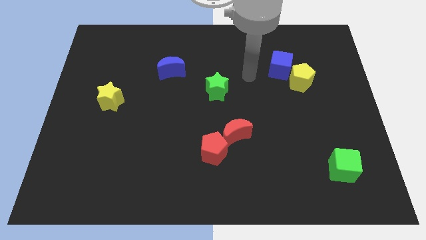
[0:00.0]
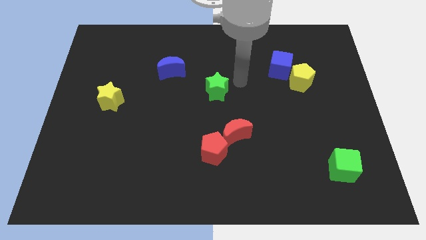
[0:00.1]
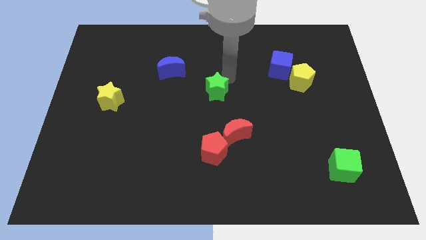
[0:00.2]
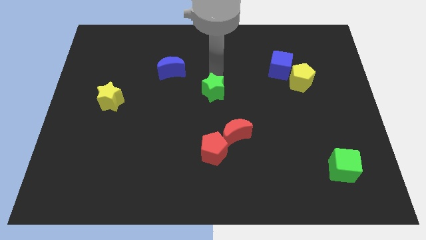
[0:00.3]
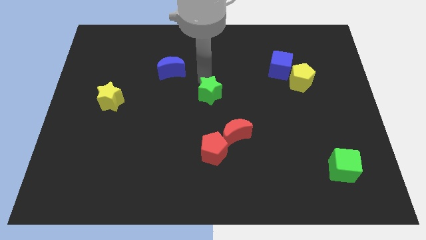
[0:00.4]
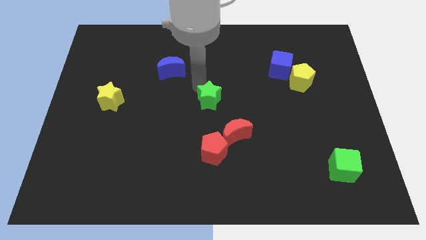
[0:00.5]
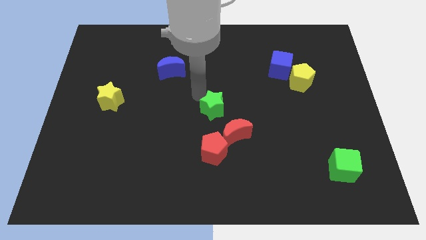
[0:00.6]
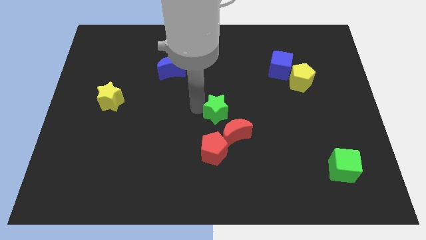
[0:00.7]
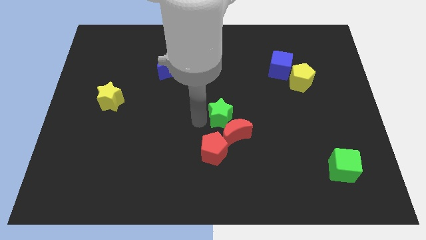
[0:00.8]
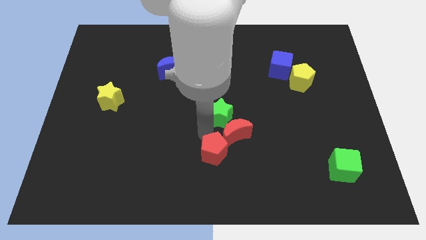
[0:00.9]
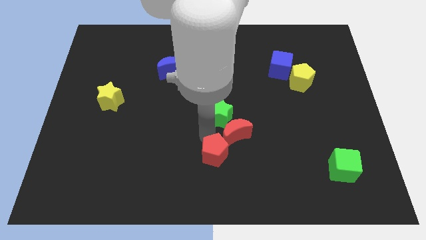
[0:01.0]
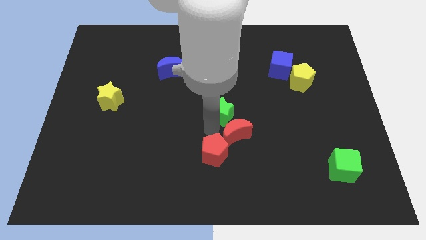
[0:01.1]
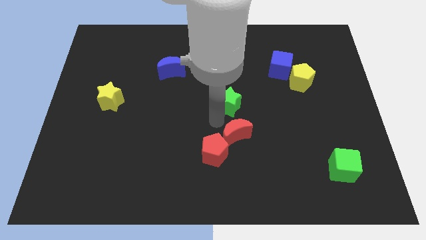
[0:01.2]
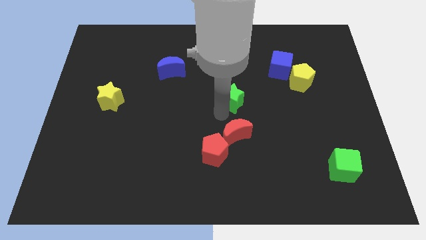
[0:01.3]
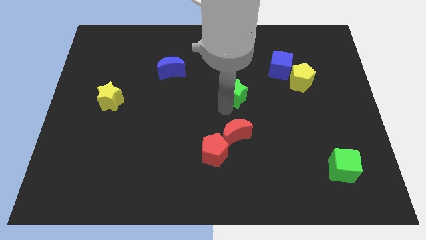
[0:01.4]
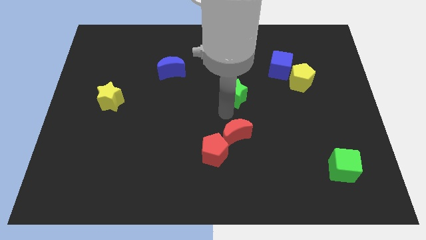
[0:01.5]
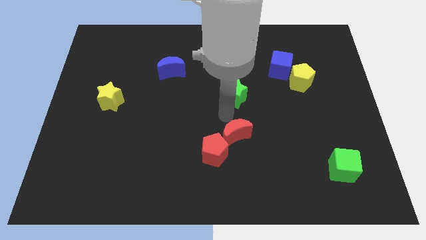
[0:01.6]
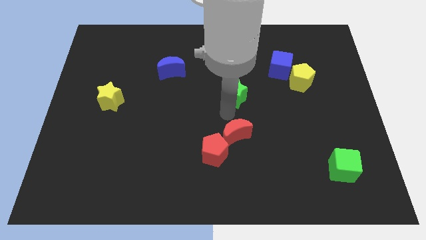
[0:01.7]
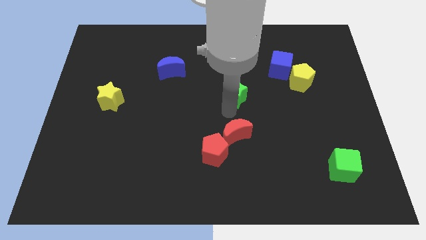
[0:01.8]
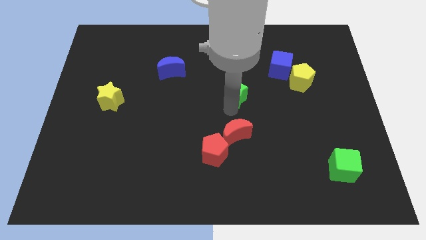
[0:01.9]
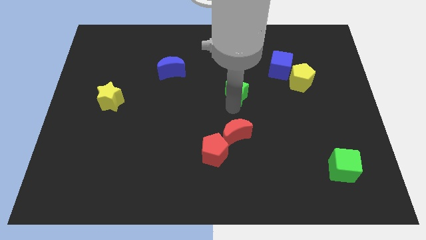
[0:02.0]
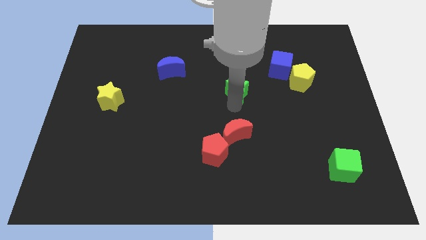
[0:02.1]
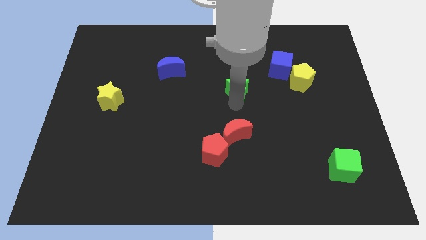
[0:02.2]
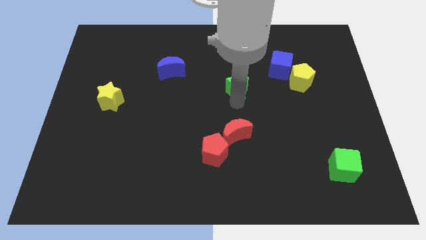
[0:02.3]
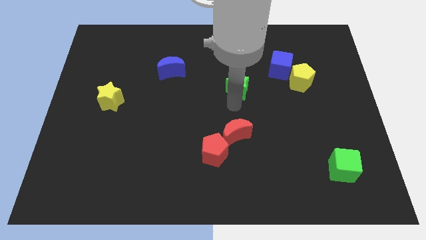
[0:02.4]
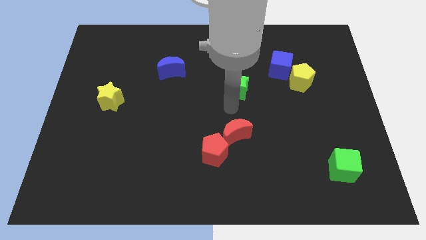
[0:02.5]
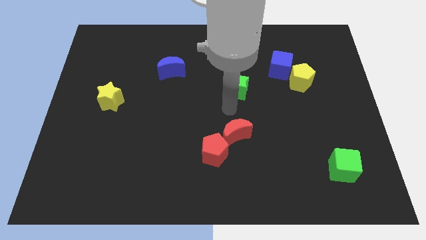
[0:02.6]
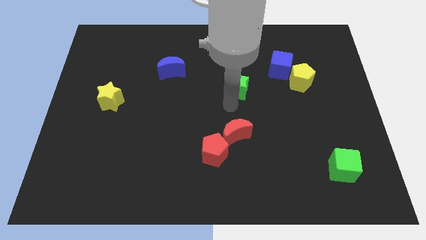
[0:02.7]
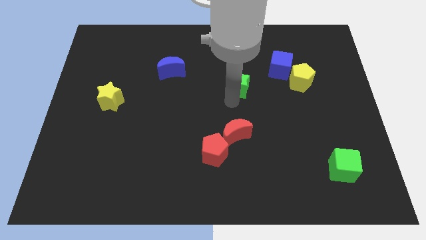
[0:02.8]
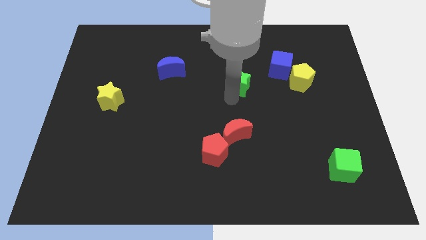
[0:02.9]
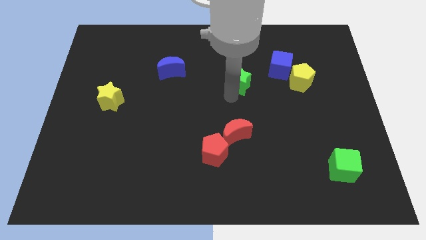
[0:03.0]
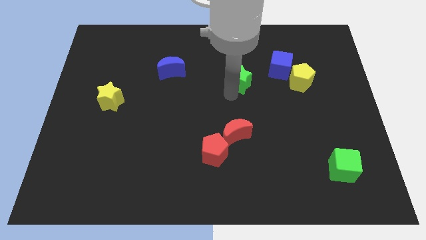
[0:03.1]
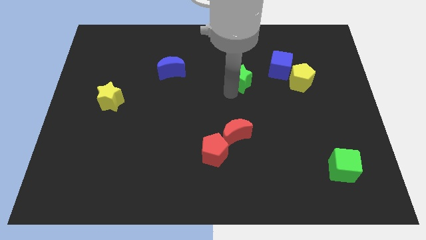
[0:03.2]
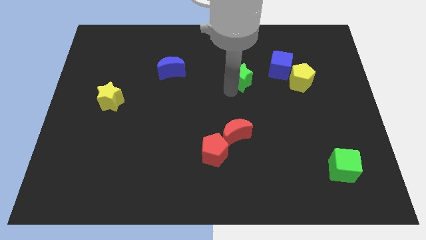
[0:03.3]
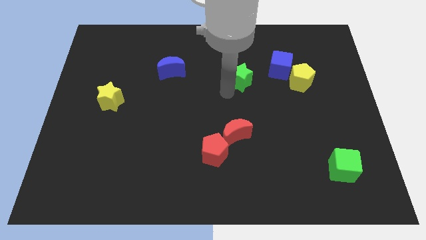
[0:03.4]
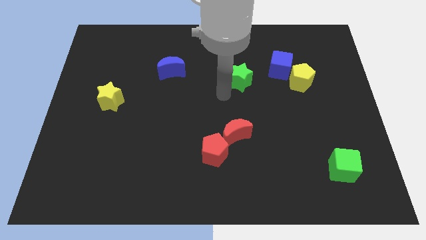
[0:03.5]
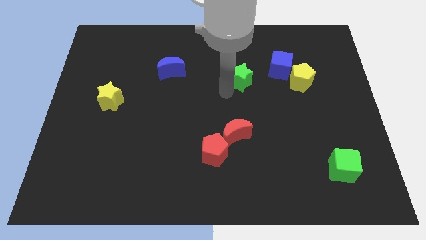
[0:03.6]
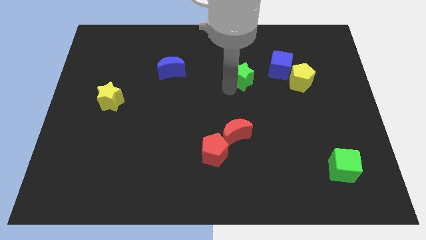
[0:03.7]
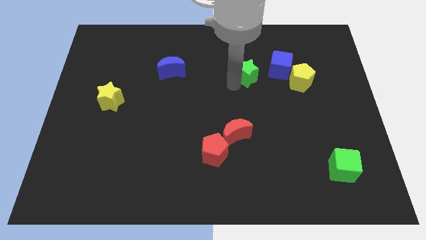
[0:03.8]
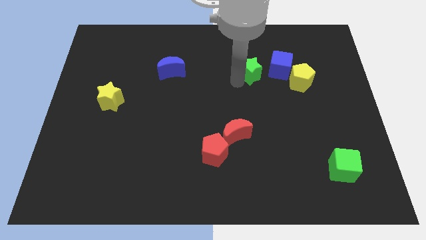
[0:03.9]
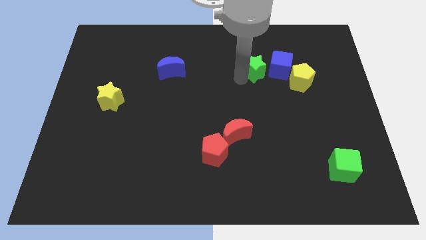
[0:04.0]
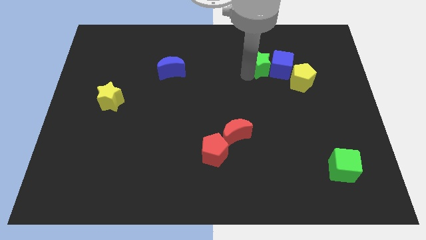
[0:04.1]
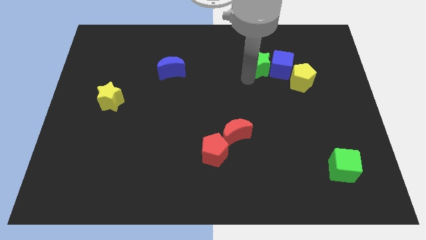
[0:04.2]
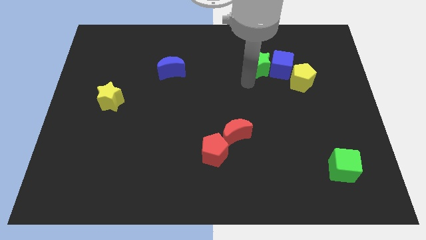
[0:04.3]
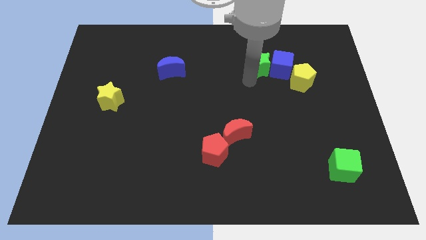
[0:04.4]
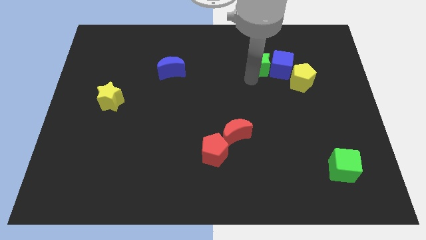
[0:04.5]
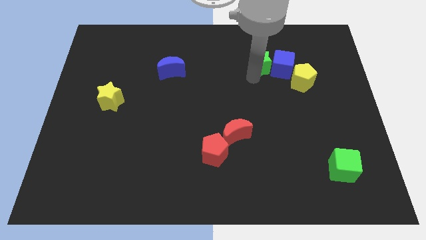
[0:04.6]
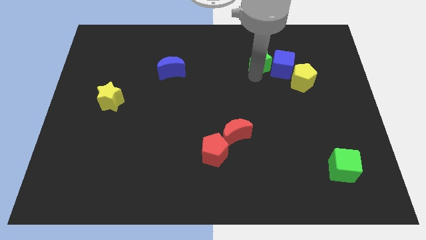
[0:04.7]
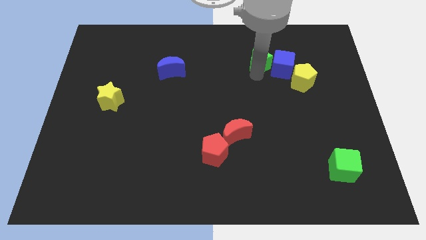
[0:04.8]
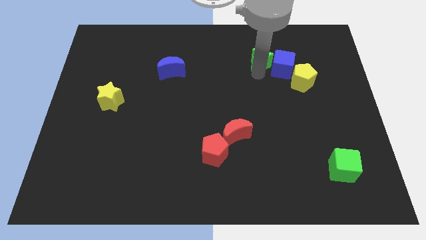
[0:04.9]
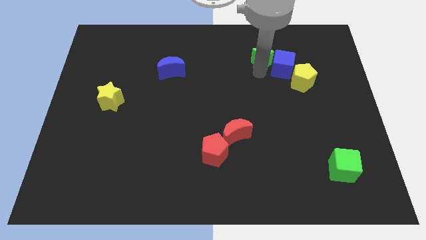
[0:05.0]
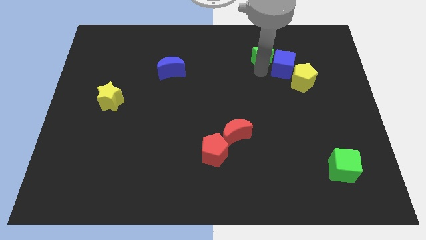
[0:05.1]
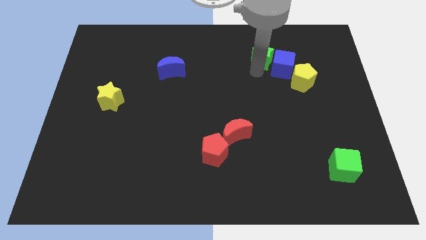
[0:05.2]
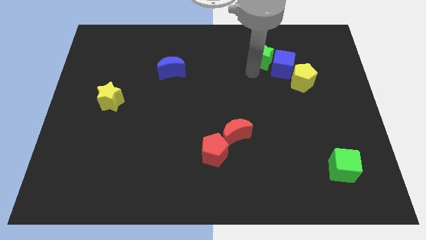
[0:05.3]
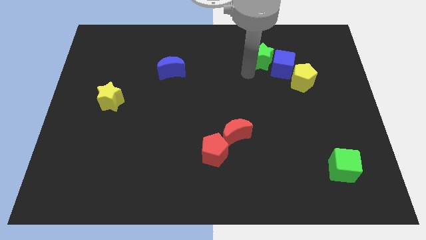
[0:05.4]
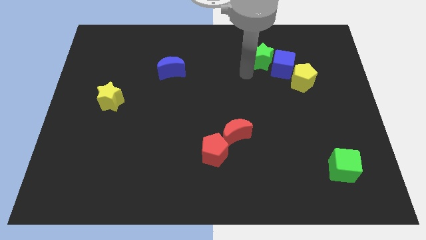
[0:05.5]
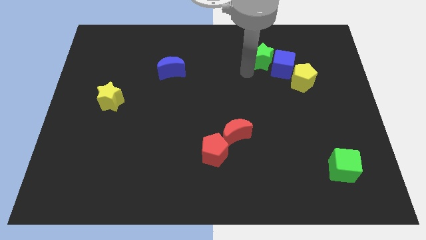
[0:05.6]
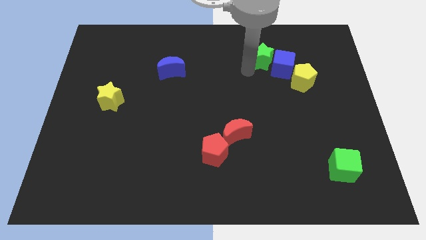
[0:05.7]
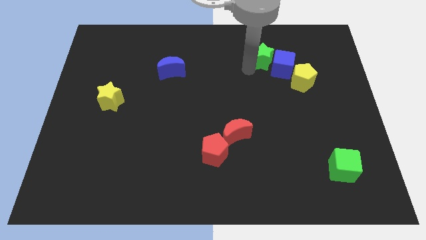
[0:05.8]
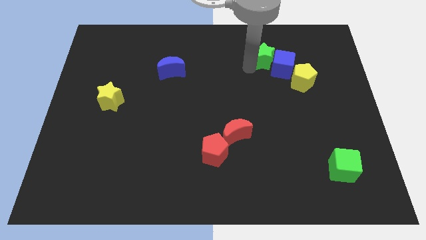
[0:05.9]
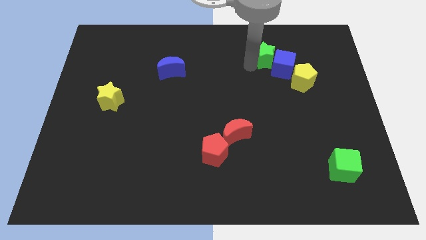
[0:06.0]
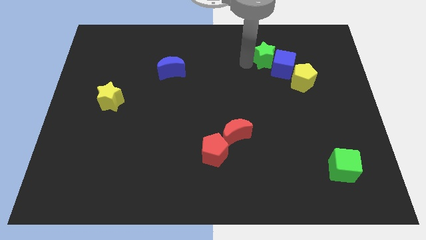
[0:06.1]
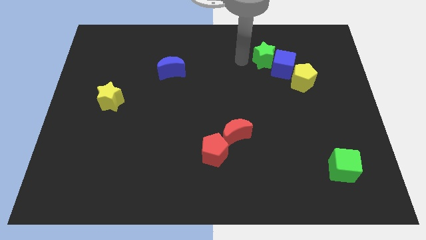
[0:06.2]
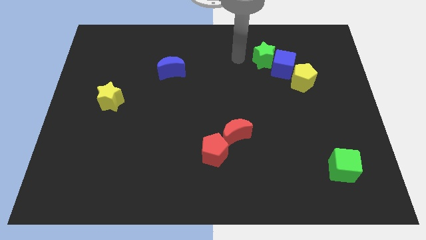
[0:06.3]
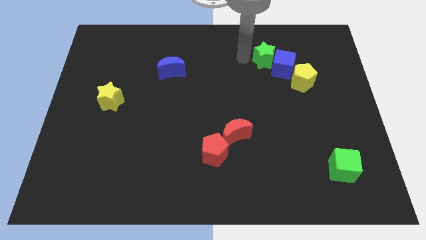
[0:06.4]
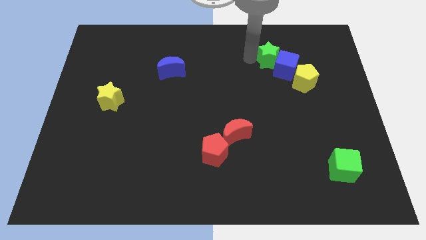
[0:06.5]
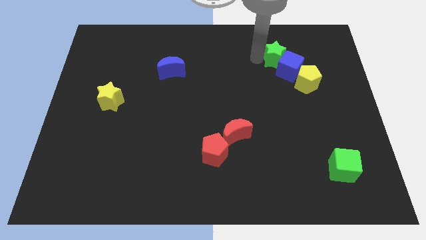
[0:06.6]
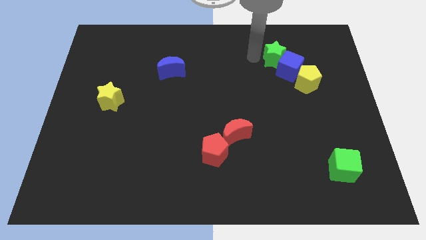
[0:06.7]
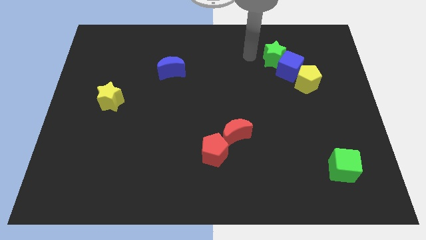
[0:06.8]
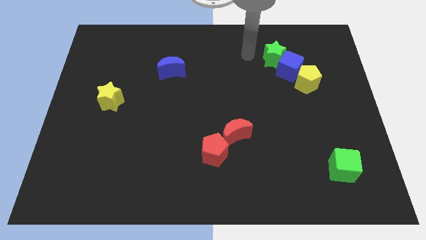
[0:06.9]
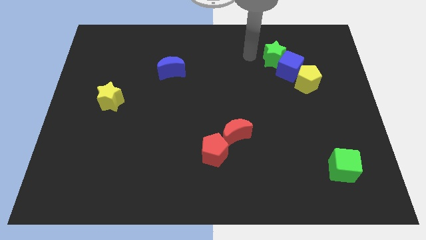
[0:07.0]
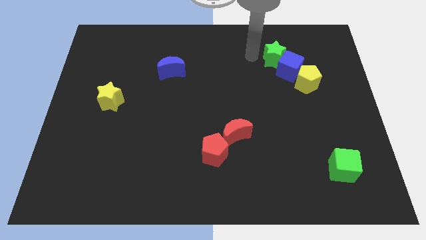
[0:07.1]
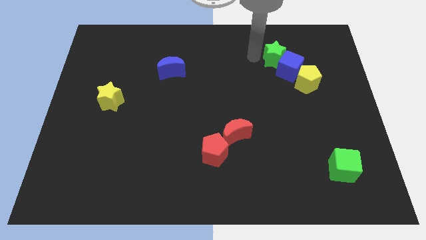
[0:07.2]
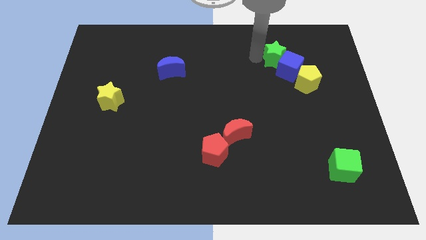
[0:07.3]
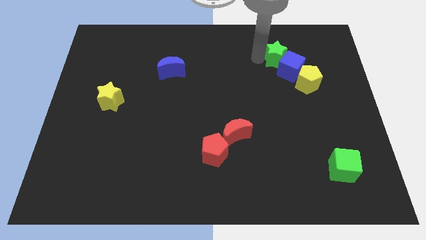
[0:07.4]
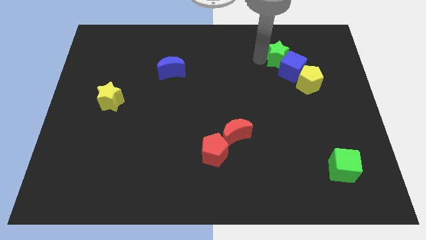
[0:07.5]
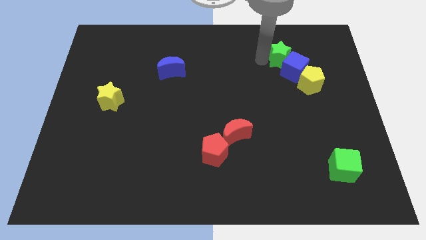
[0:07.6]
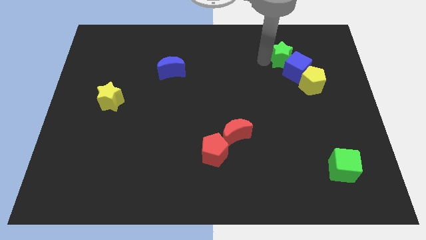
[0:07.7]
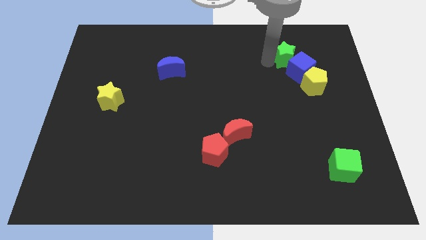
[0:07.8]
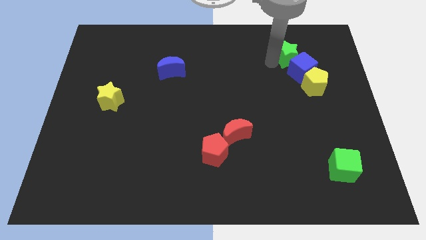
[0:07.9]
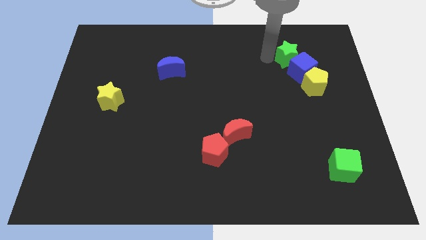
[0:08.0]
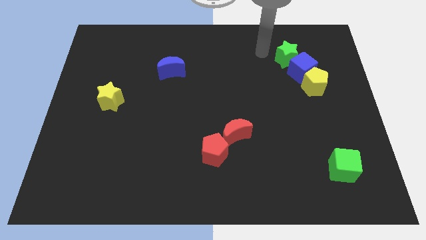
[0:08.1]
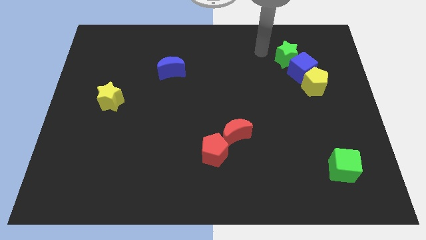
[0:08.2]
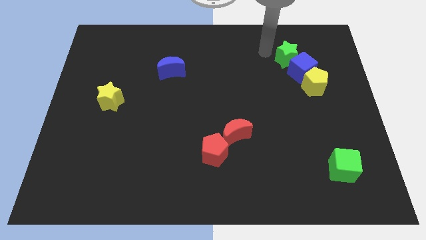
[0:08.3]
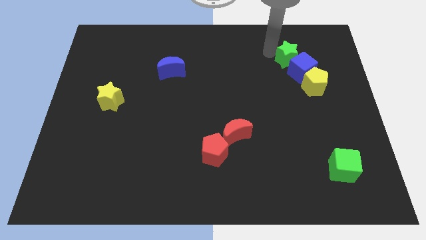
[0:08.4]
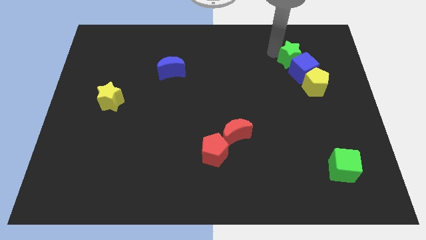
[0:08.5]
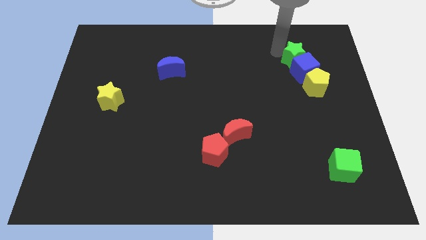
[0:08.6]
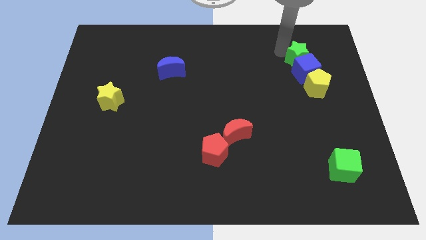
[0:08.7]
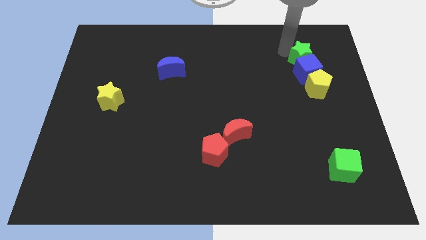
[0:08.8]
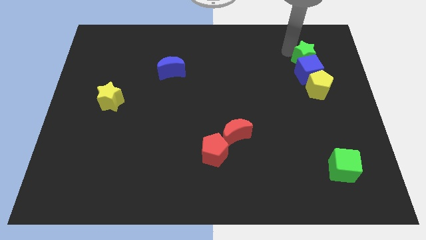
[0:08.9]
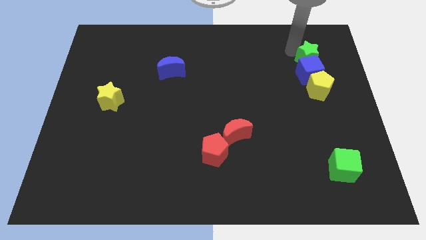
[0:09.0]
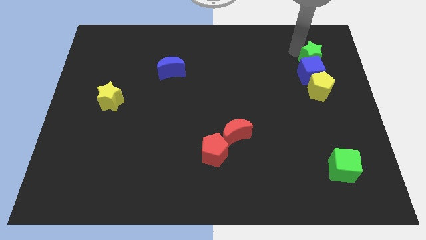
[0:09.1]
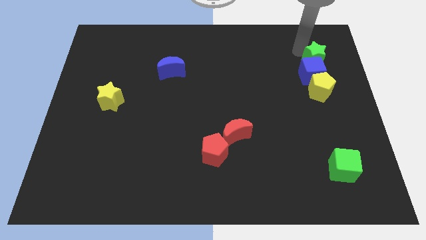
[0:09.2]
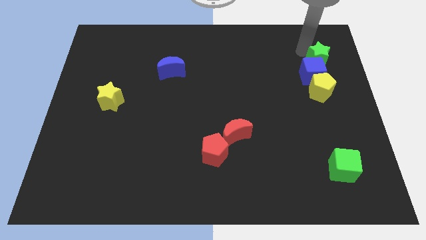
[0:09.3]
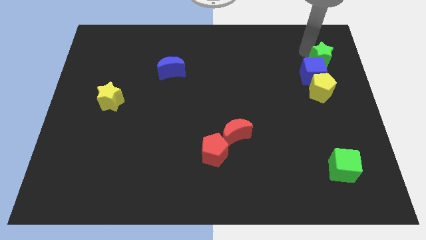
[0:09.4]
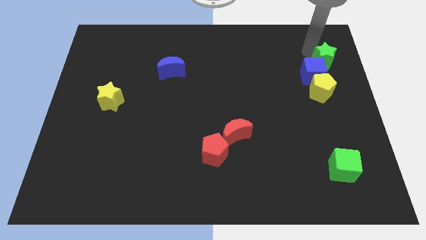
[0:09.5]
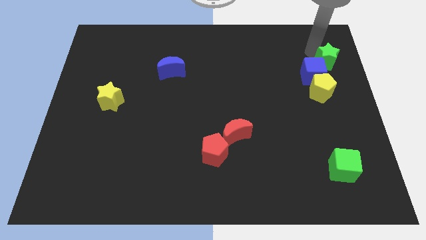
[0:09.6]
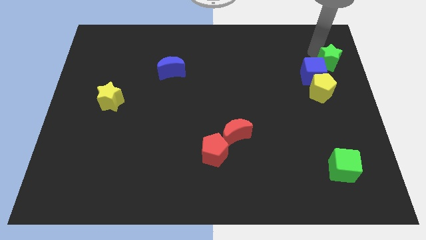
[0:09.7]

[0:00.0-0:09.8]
move the green star to the top right of the yellow pentagon
